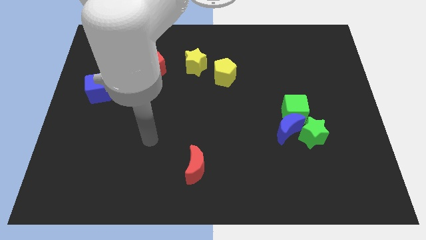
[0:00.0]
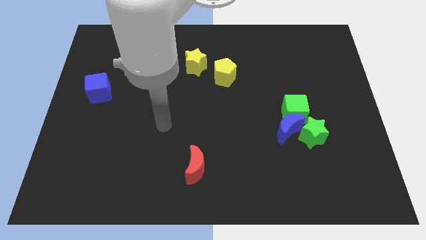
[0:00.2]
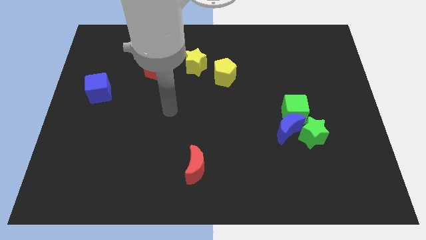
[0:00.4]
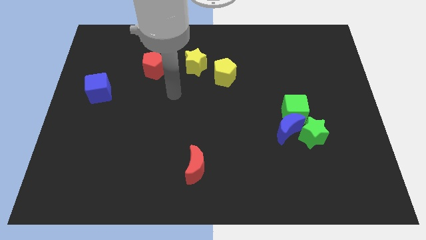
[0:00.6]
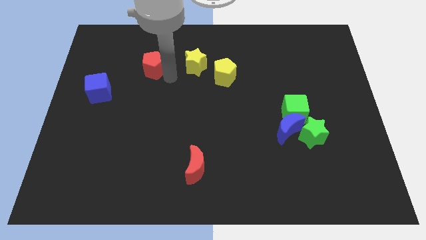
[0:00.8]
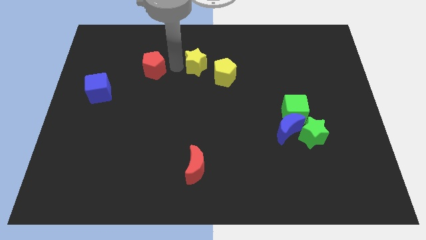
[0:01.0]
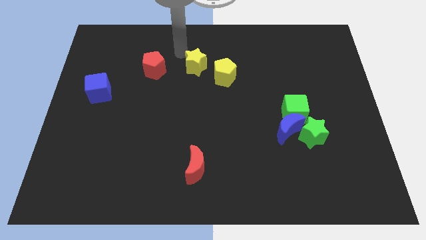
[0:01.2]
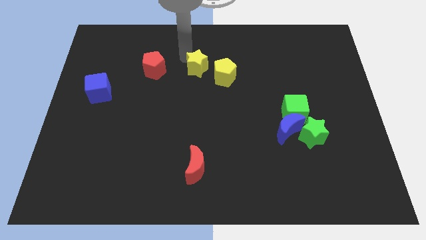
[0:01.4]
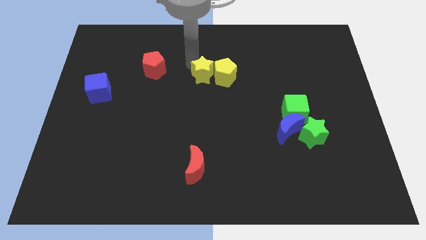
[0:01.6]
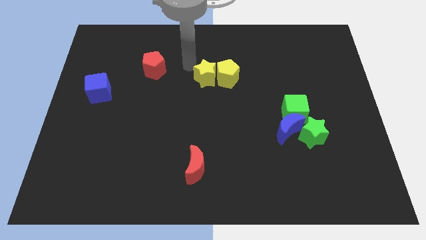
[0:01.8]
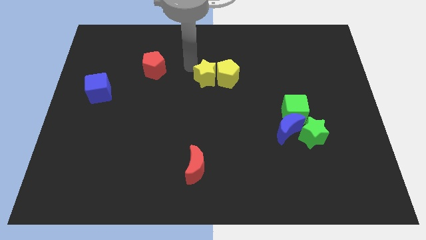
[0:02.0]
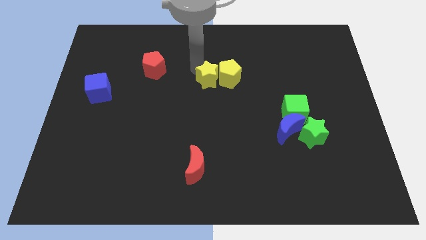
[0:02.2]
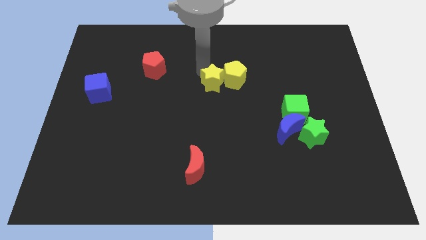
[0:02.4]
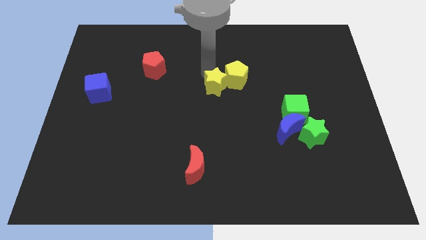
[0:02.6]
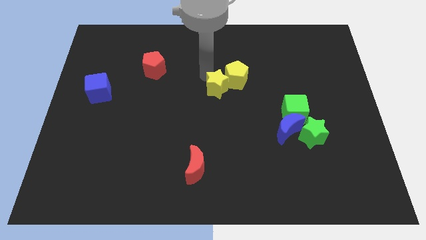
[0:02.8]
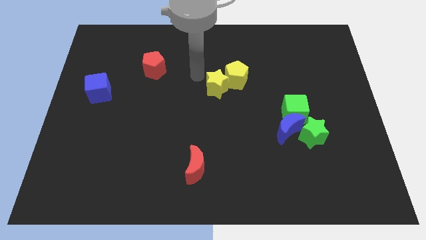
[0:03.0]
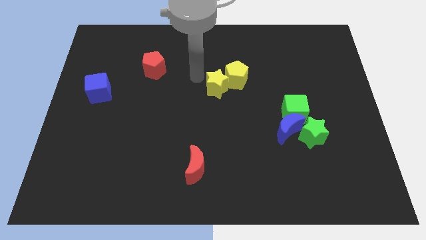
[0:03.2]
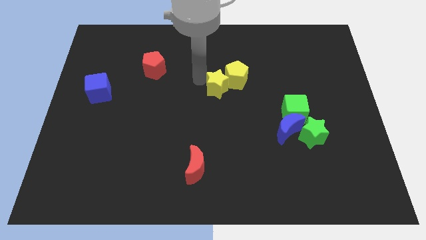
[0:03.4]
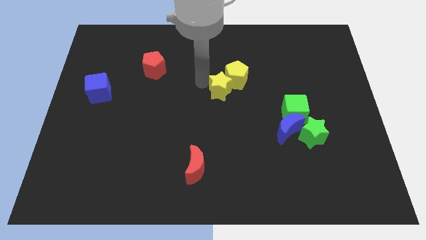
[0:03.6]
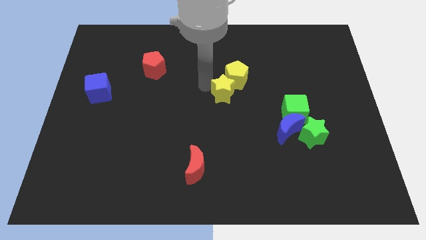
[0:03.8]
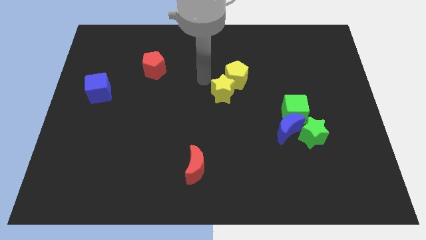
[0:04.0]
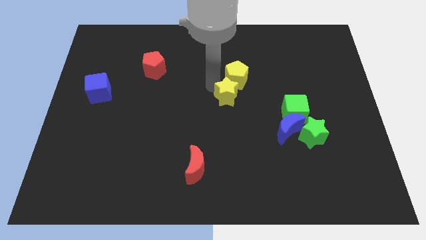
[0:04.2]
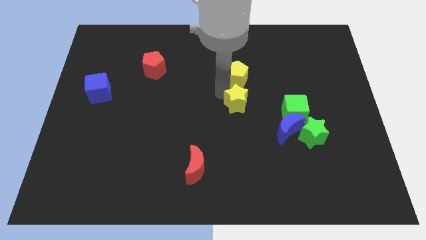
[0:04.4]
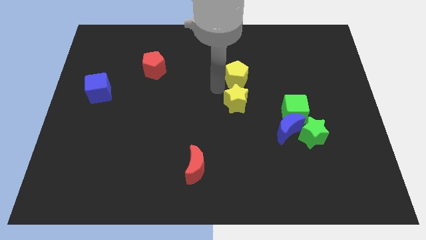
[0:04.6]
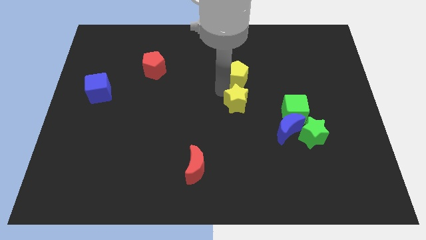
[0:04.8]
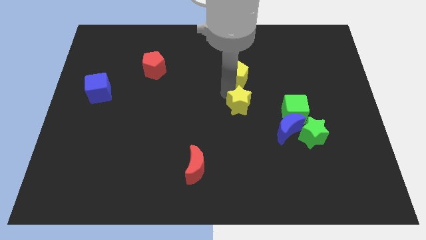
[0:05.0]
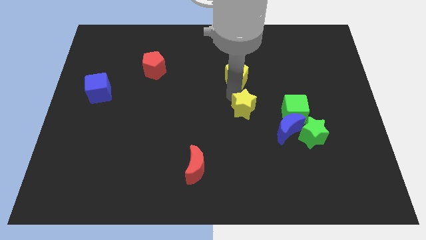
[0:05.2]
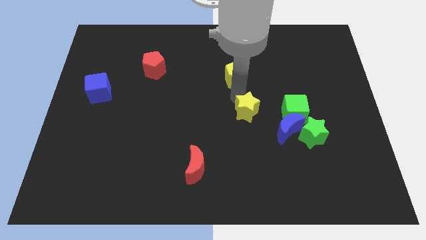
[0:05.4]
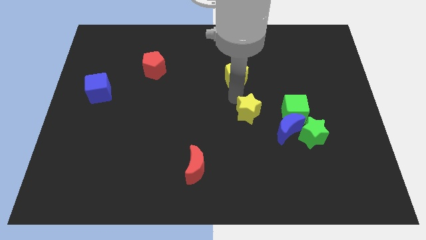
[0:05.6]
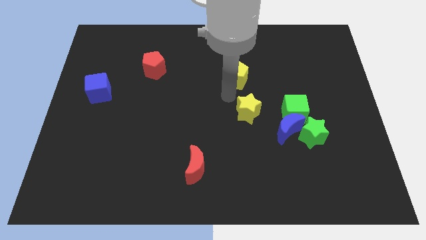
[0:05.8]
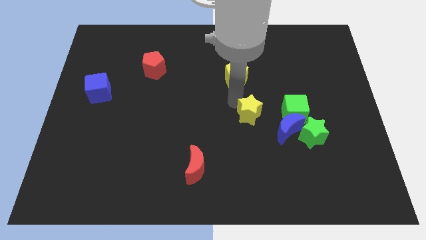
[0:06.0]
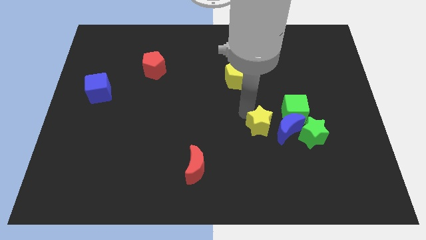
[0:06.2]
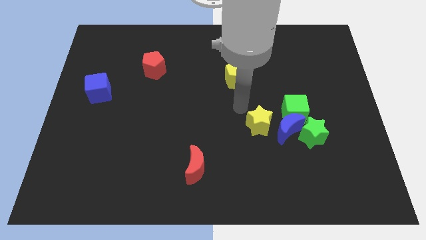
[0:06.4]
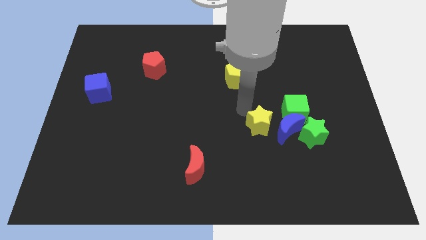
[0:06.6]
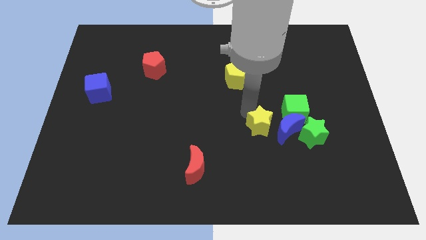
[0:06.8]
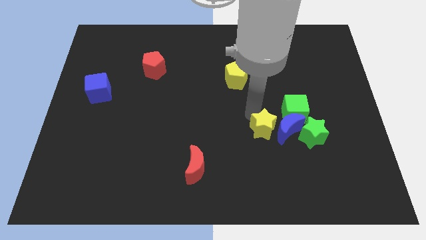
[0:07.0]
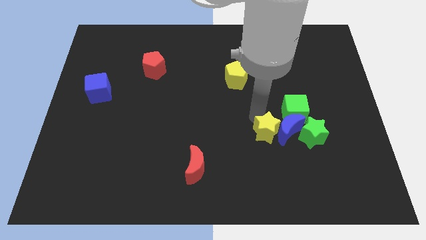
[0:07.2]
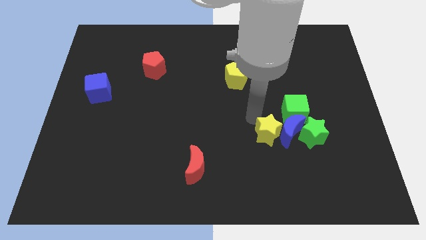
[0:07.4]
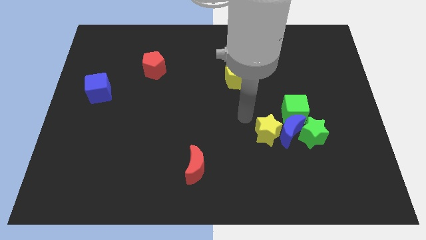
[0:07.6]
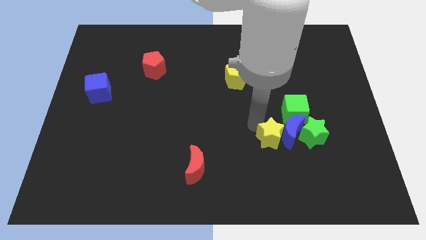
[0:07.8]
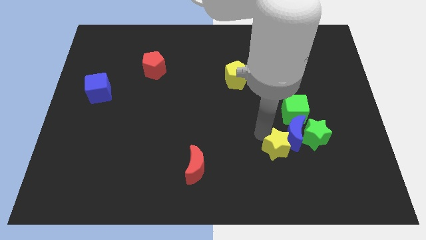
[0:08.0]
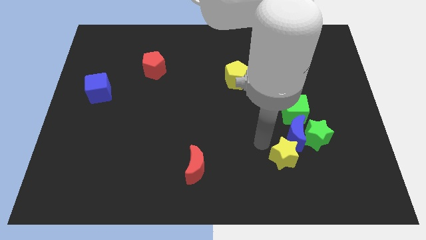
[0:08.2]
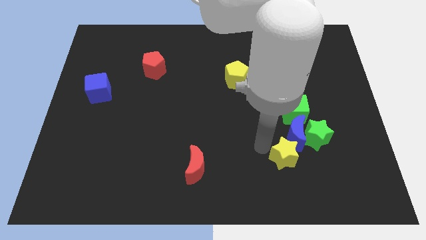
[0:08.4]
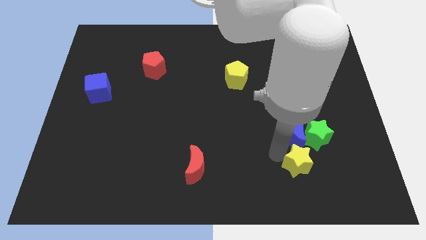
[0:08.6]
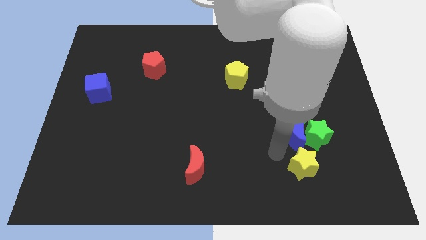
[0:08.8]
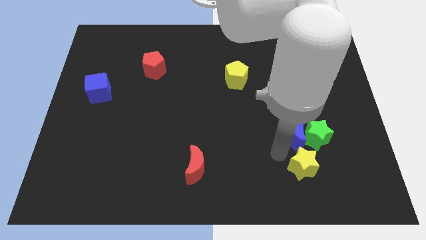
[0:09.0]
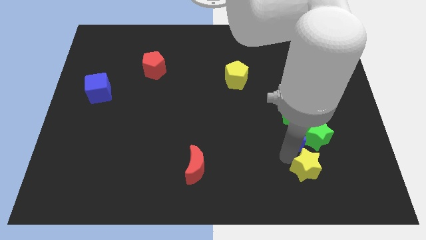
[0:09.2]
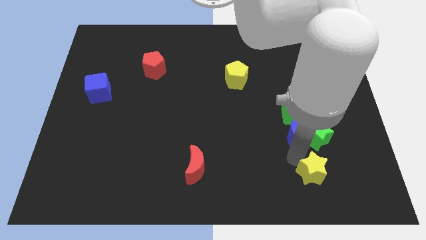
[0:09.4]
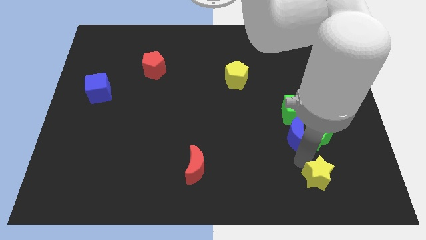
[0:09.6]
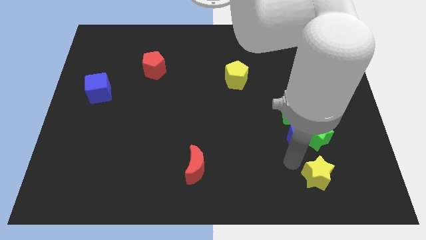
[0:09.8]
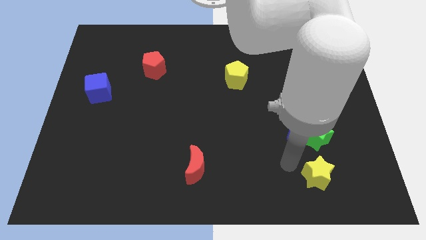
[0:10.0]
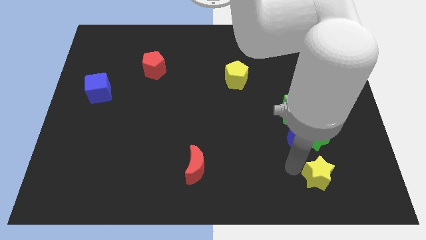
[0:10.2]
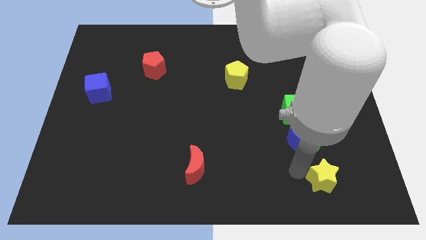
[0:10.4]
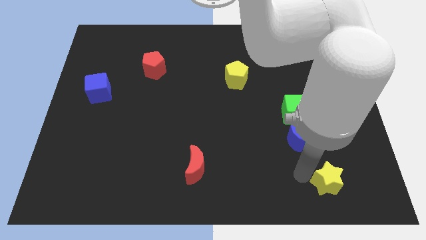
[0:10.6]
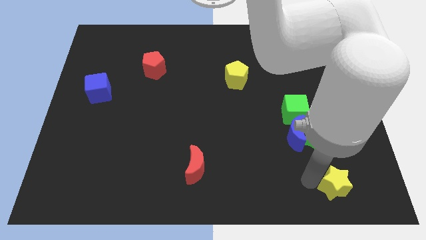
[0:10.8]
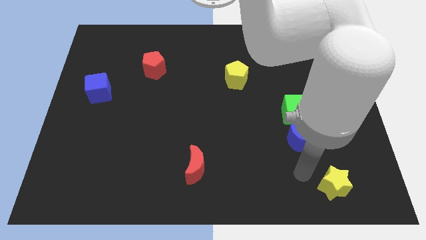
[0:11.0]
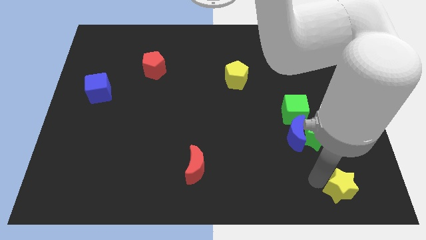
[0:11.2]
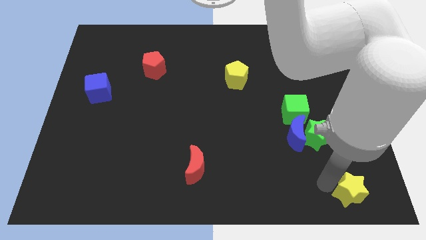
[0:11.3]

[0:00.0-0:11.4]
push the yellow star to the bottom right of the board

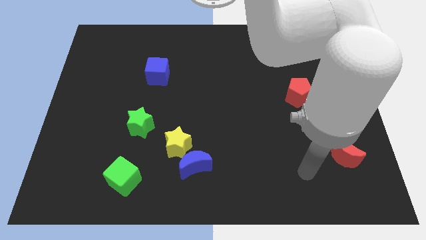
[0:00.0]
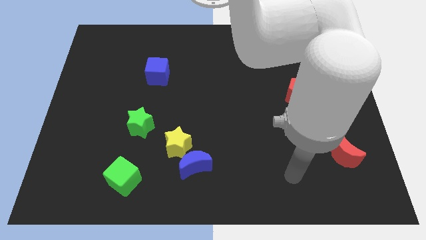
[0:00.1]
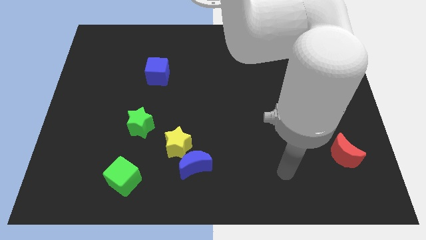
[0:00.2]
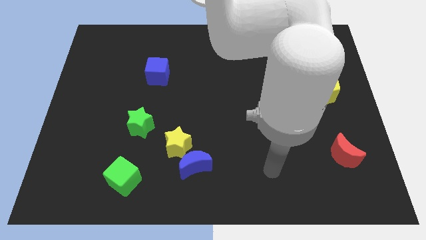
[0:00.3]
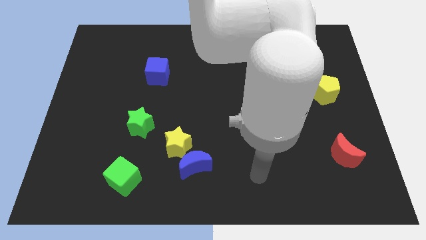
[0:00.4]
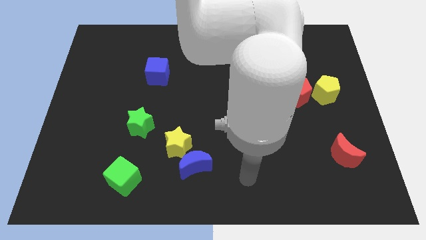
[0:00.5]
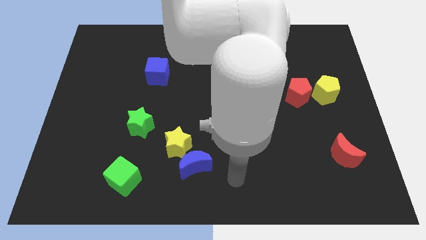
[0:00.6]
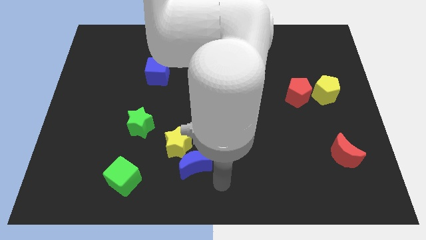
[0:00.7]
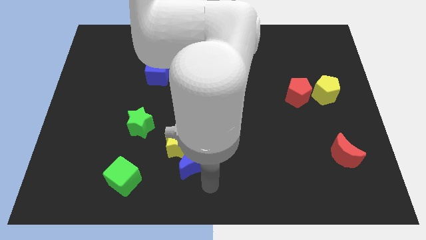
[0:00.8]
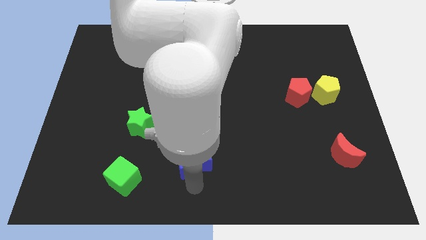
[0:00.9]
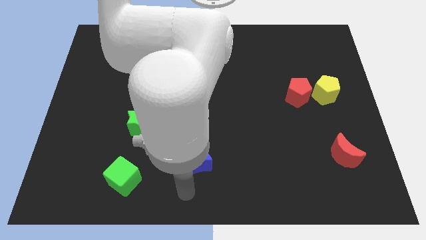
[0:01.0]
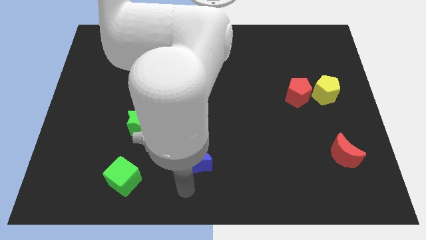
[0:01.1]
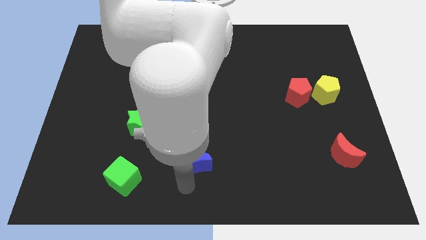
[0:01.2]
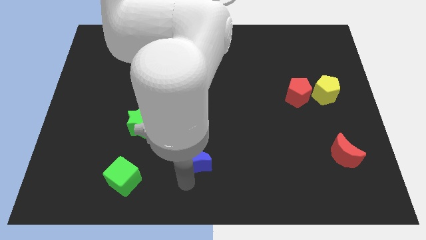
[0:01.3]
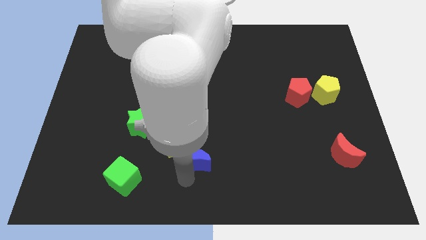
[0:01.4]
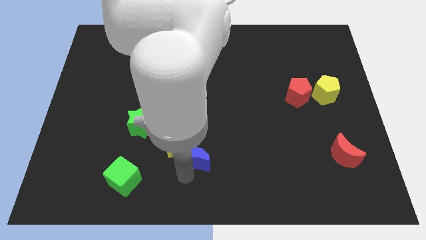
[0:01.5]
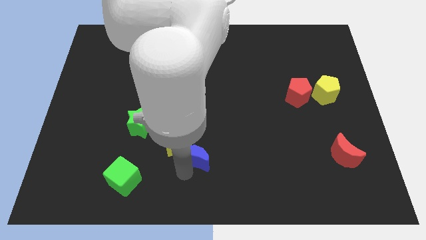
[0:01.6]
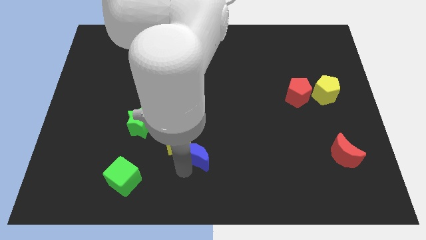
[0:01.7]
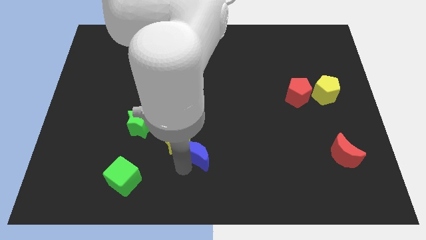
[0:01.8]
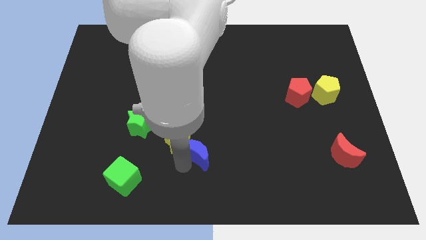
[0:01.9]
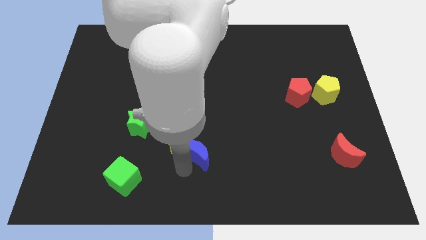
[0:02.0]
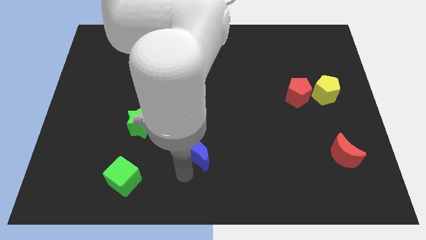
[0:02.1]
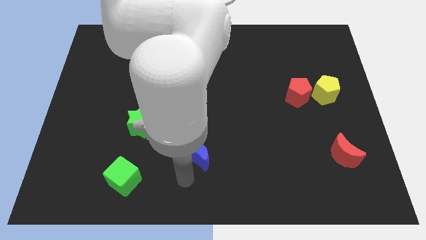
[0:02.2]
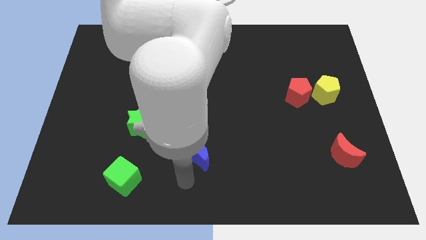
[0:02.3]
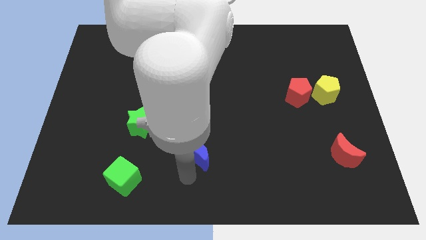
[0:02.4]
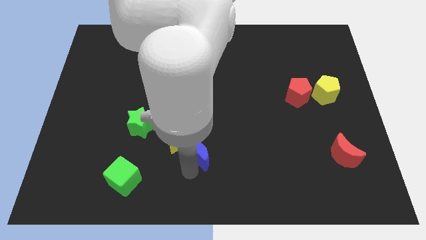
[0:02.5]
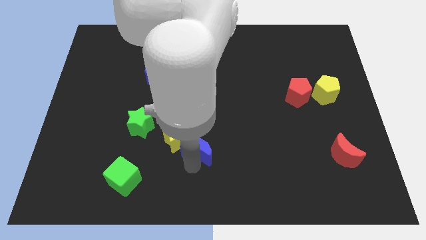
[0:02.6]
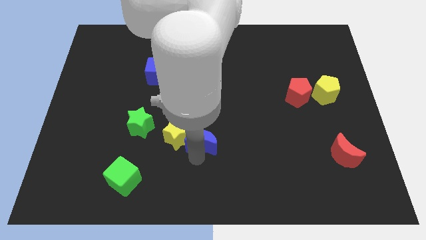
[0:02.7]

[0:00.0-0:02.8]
put the blue moon to the center of the board
